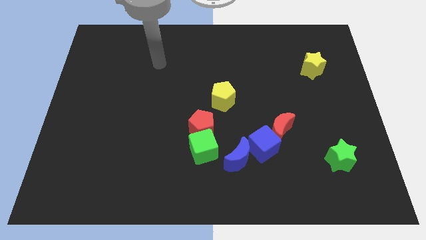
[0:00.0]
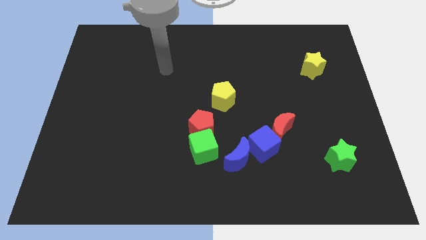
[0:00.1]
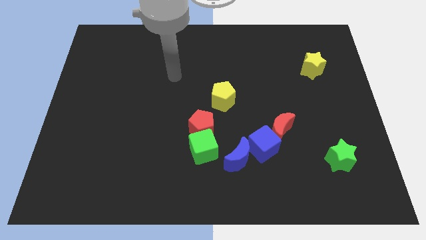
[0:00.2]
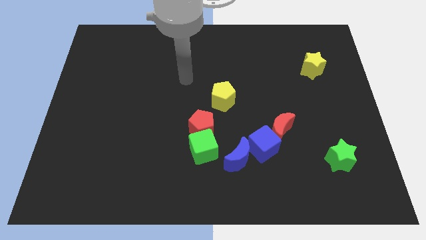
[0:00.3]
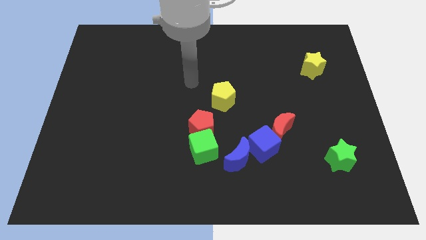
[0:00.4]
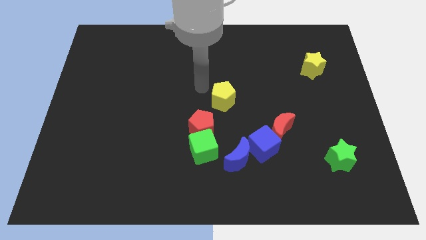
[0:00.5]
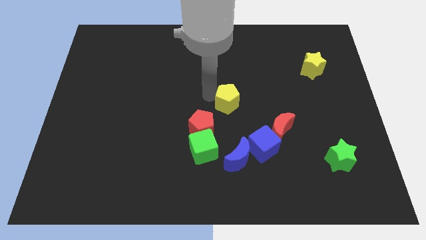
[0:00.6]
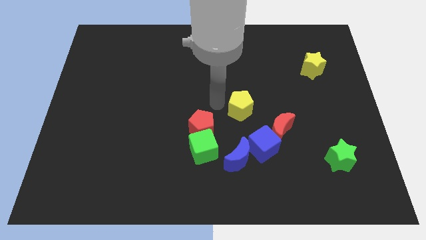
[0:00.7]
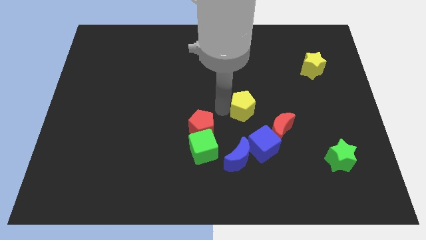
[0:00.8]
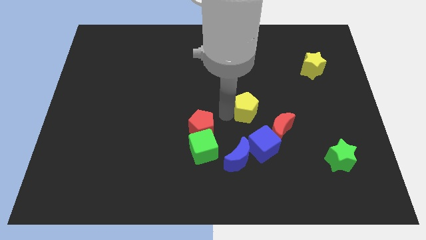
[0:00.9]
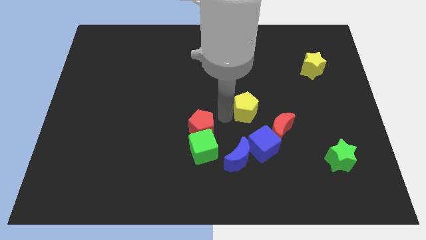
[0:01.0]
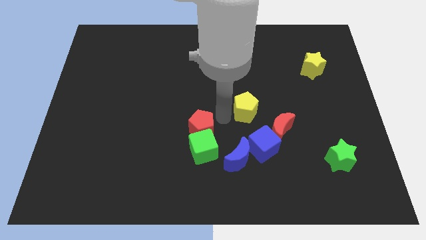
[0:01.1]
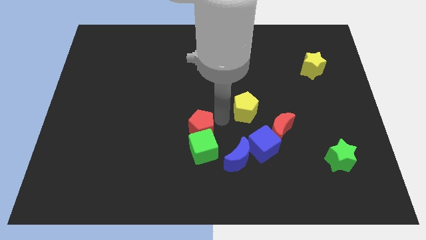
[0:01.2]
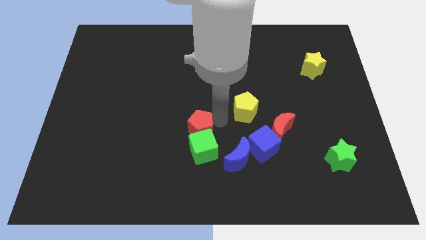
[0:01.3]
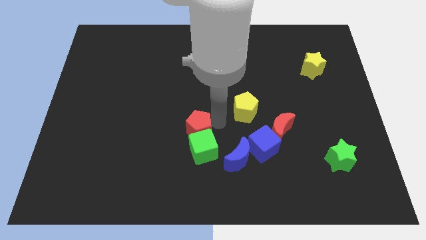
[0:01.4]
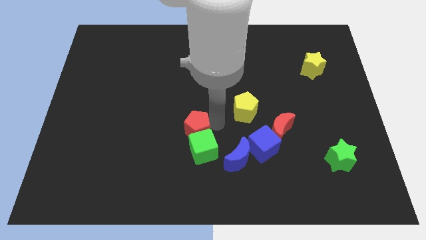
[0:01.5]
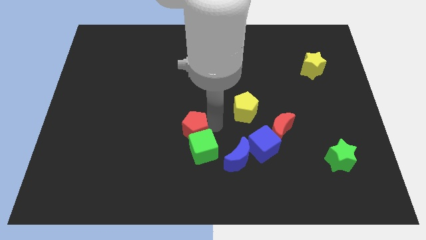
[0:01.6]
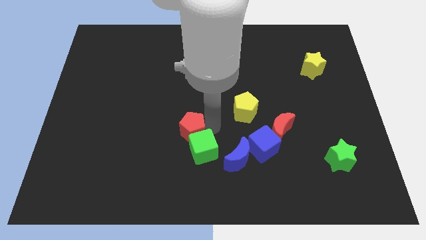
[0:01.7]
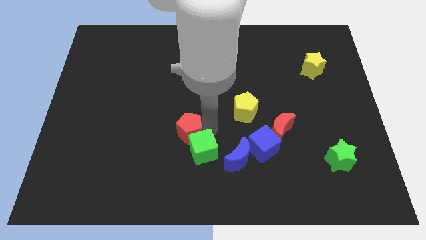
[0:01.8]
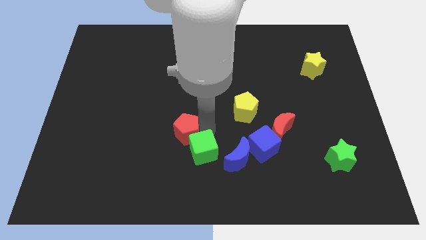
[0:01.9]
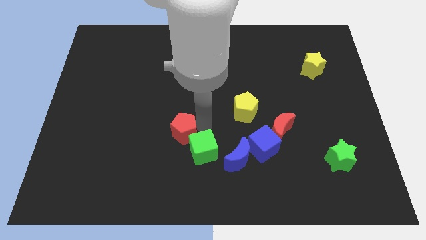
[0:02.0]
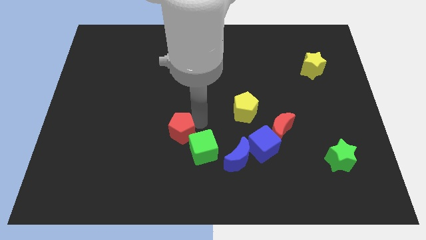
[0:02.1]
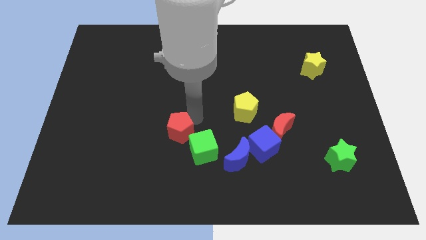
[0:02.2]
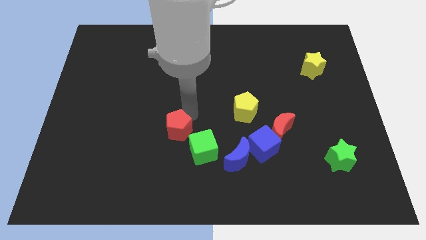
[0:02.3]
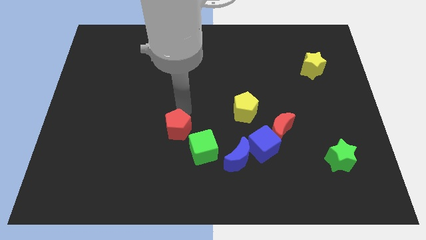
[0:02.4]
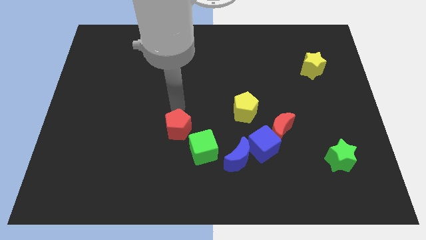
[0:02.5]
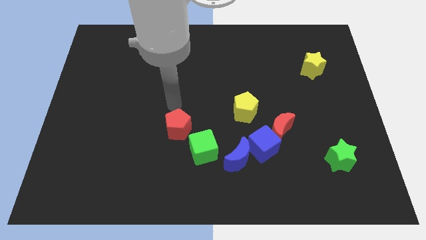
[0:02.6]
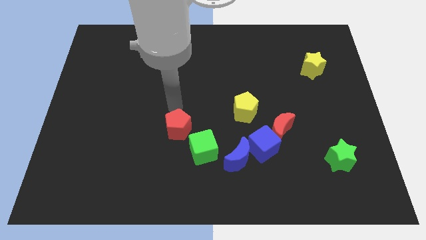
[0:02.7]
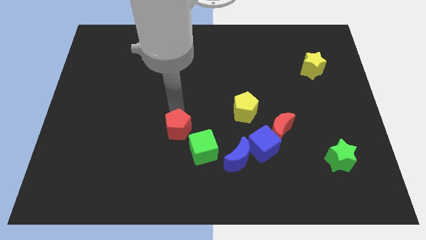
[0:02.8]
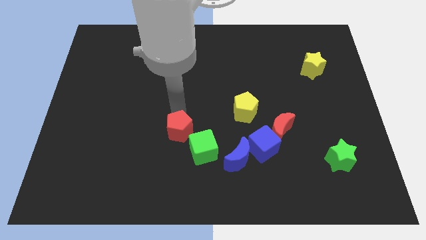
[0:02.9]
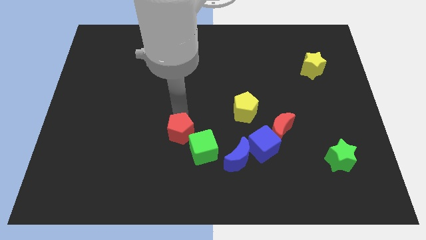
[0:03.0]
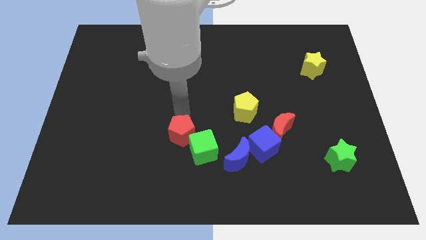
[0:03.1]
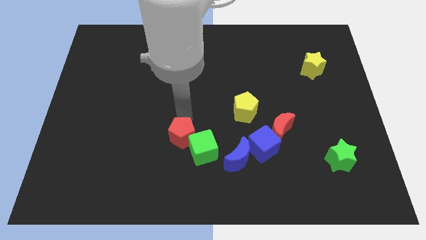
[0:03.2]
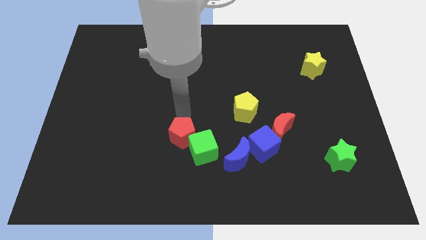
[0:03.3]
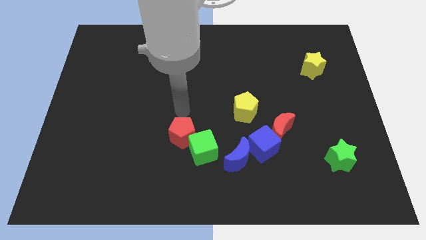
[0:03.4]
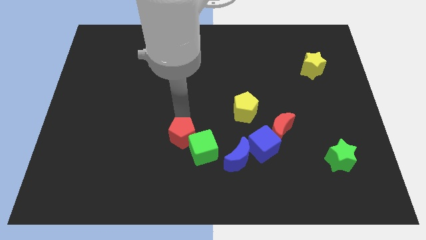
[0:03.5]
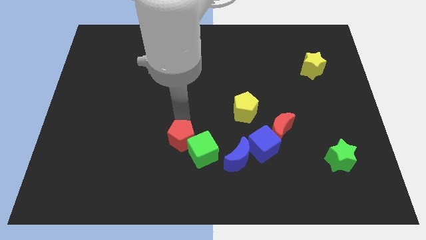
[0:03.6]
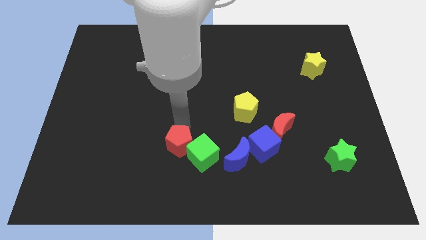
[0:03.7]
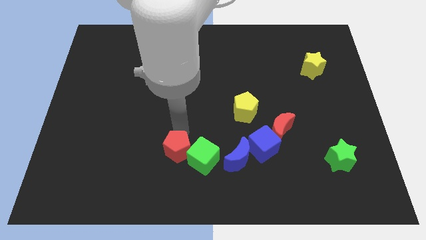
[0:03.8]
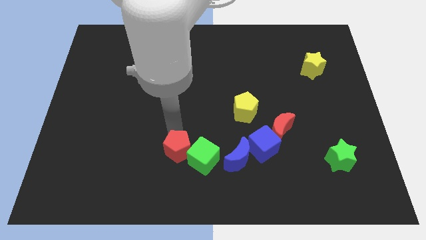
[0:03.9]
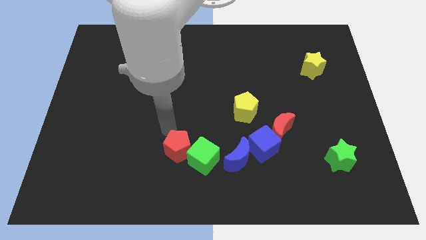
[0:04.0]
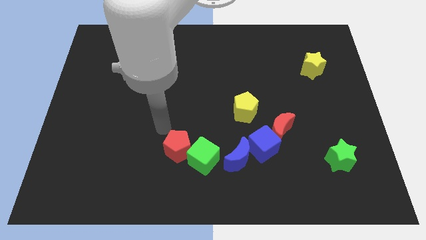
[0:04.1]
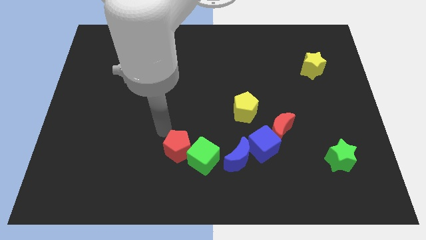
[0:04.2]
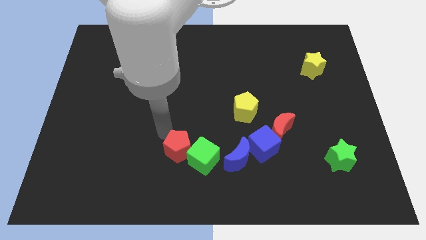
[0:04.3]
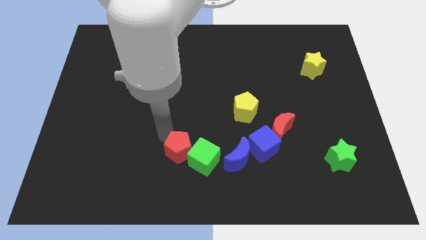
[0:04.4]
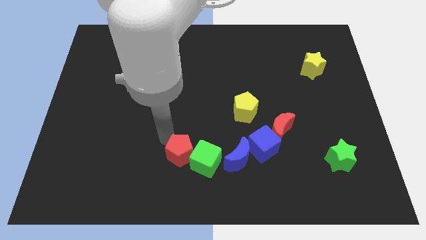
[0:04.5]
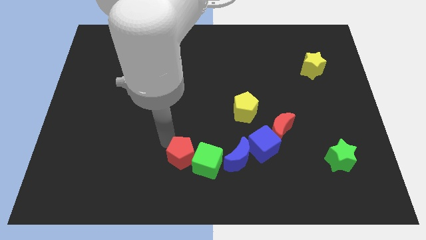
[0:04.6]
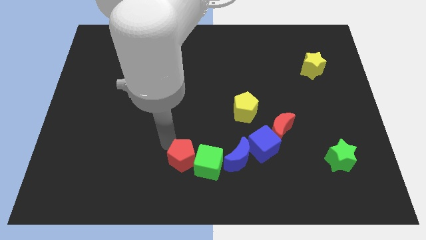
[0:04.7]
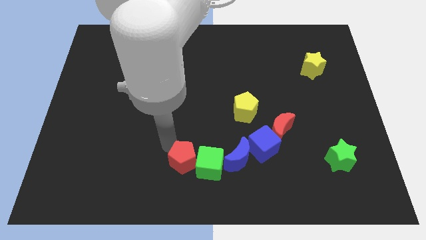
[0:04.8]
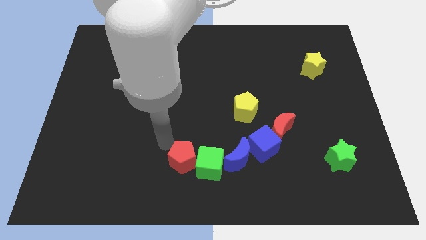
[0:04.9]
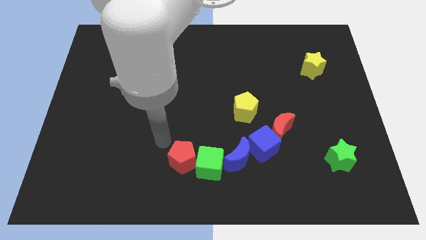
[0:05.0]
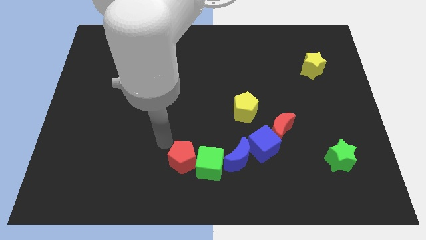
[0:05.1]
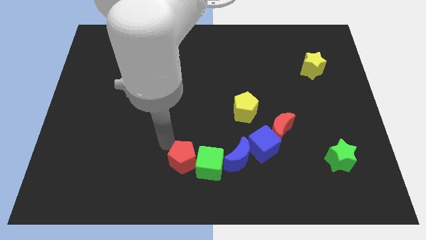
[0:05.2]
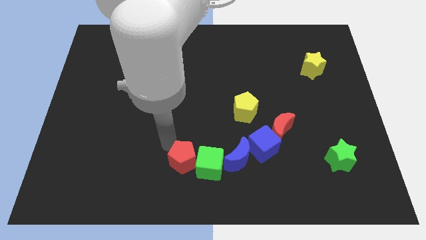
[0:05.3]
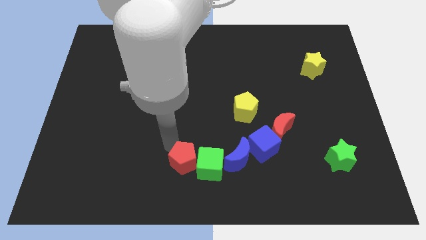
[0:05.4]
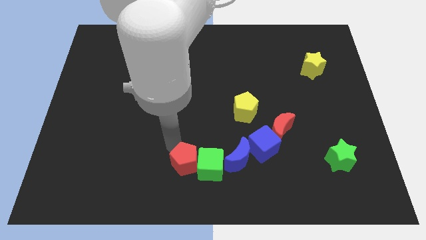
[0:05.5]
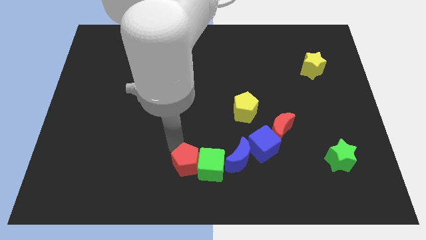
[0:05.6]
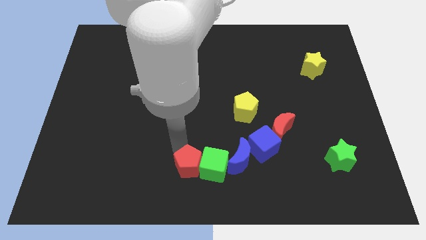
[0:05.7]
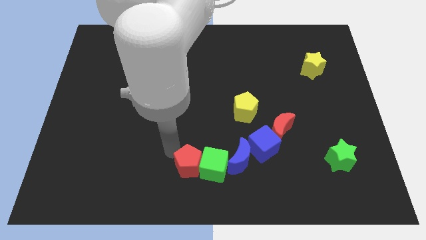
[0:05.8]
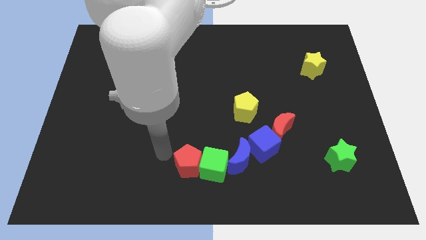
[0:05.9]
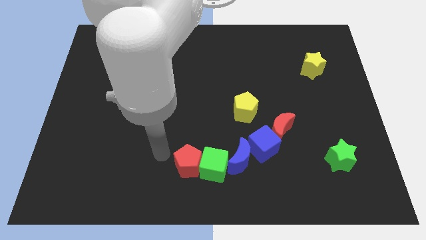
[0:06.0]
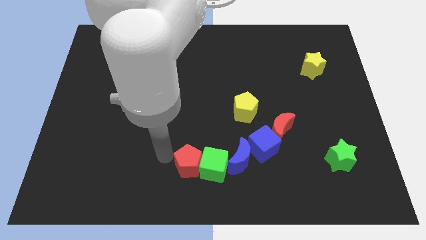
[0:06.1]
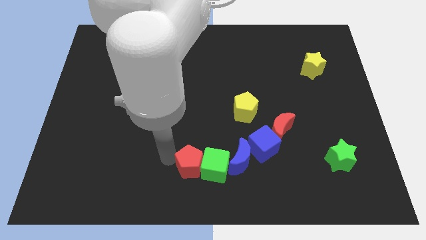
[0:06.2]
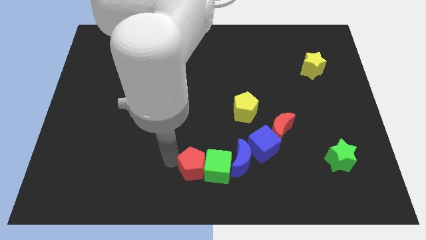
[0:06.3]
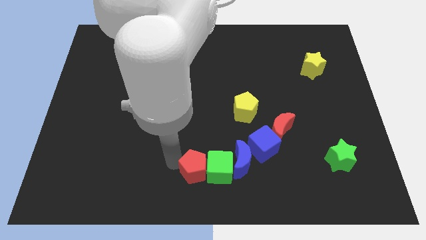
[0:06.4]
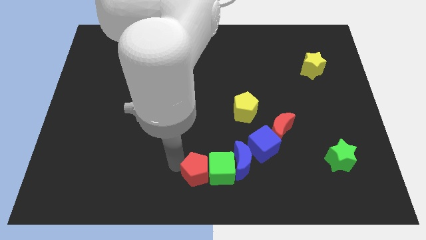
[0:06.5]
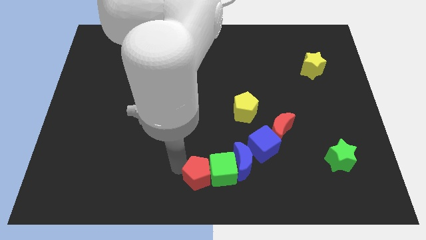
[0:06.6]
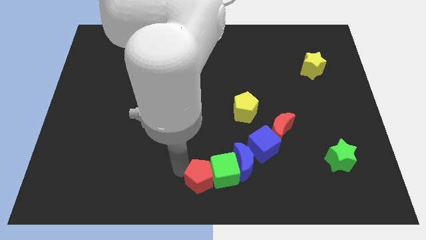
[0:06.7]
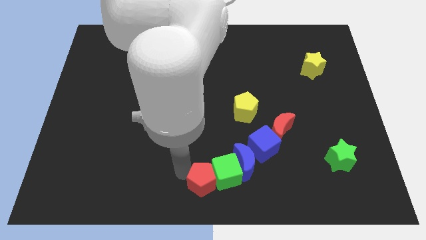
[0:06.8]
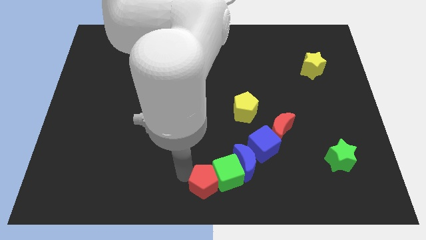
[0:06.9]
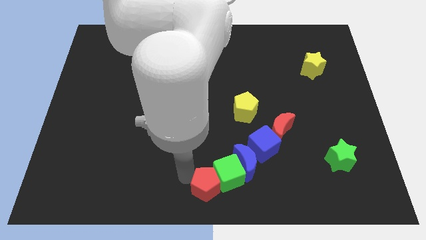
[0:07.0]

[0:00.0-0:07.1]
slightly slide the red pentagon diagonally downwards and to the right

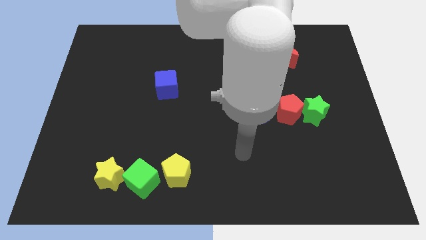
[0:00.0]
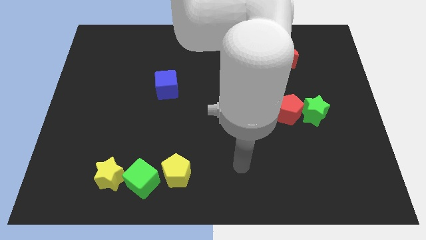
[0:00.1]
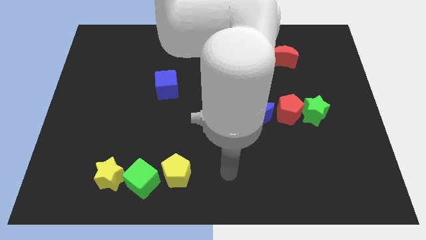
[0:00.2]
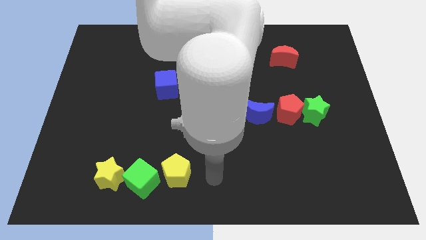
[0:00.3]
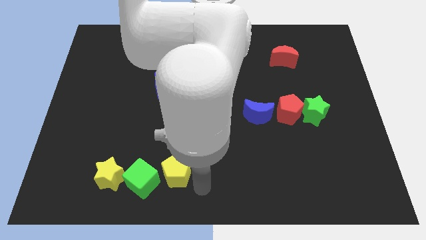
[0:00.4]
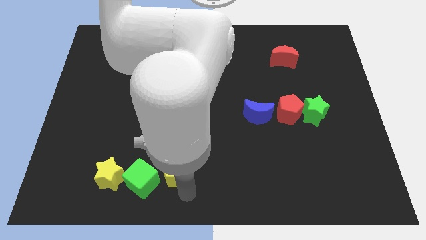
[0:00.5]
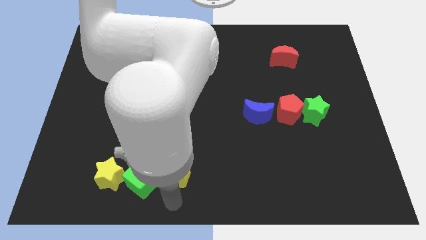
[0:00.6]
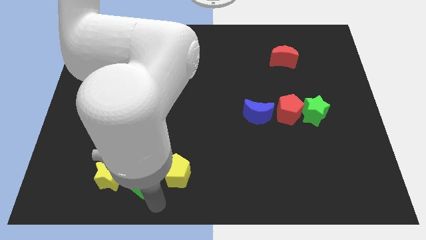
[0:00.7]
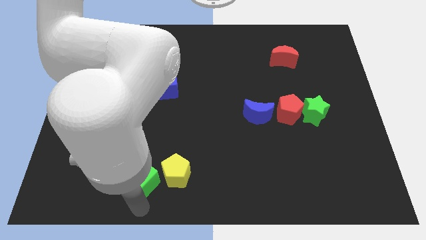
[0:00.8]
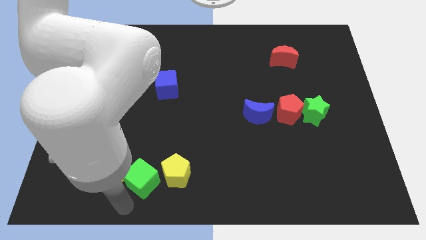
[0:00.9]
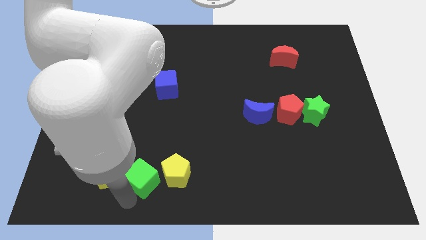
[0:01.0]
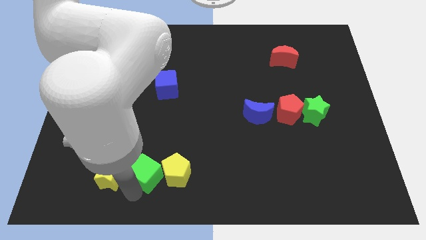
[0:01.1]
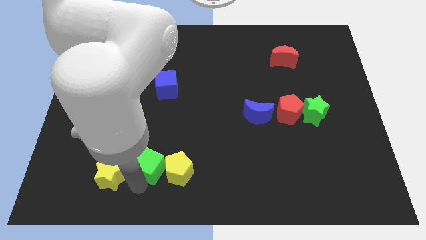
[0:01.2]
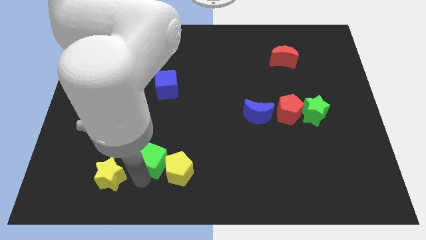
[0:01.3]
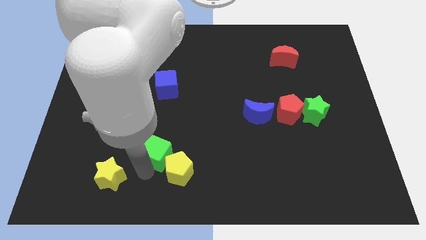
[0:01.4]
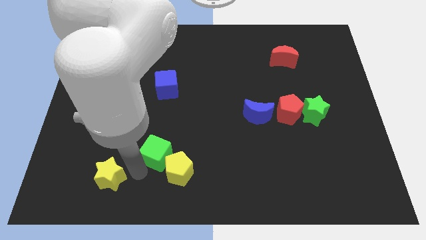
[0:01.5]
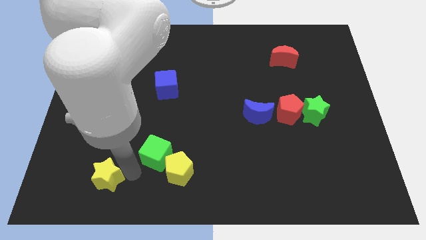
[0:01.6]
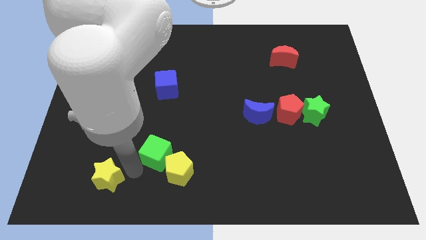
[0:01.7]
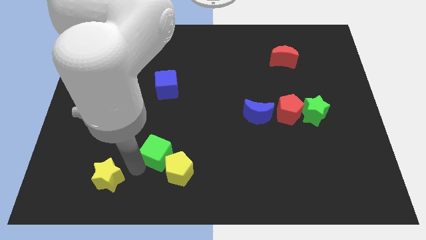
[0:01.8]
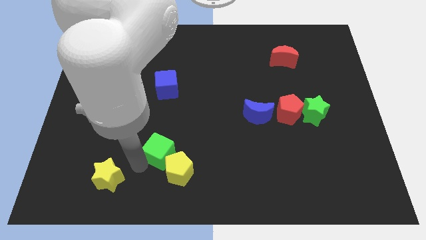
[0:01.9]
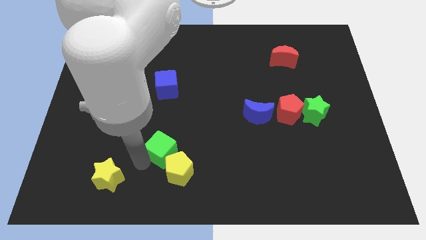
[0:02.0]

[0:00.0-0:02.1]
slide the green cube up and to the right diagonally a little bit
